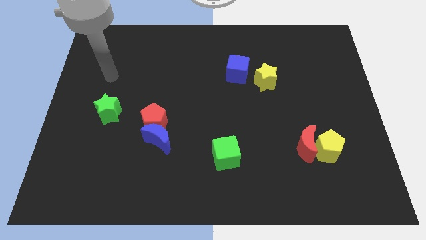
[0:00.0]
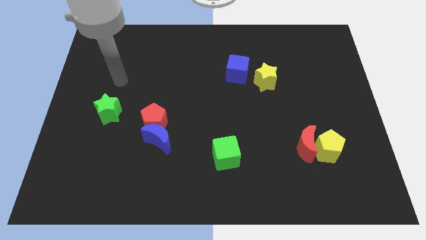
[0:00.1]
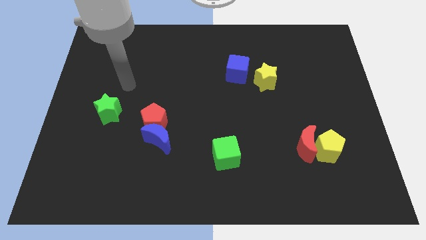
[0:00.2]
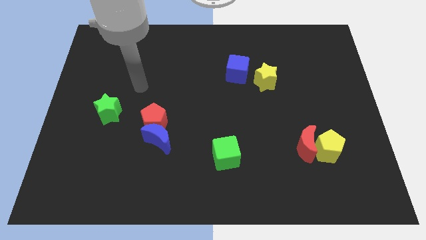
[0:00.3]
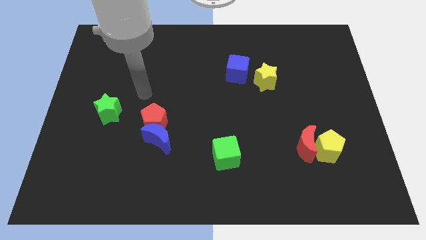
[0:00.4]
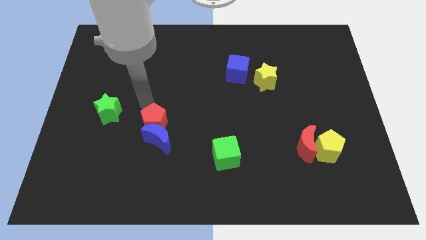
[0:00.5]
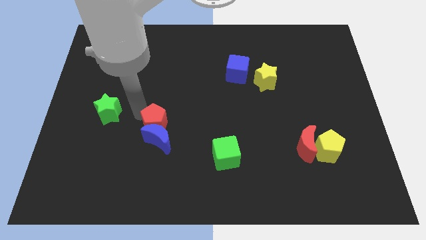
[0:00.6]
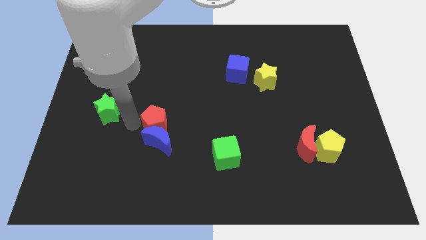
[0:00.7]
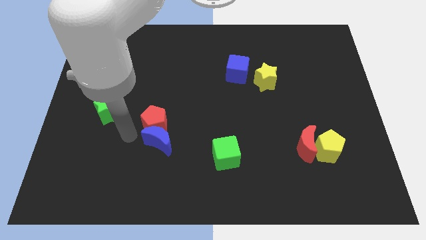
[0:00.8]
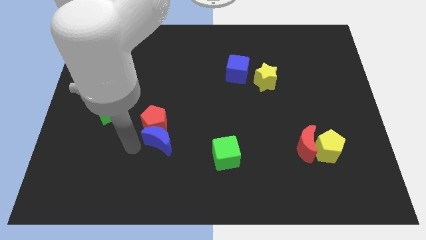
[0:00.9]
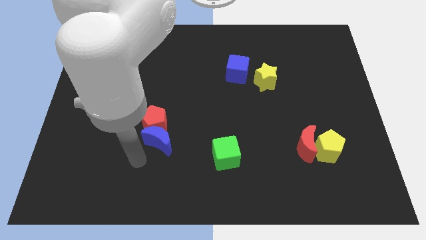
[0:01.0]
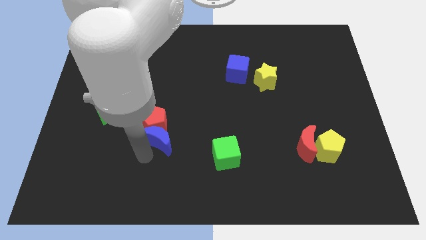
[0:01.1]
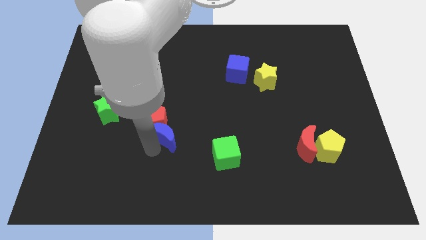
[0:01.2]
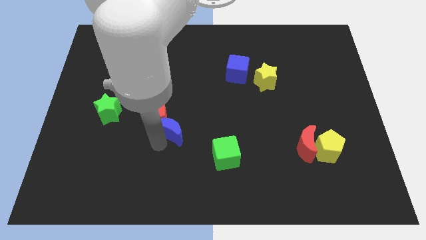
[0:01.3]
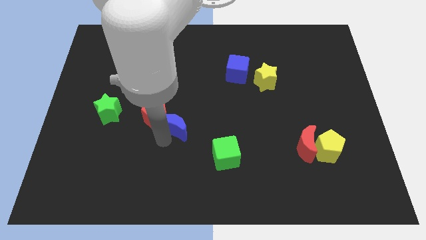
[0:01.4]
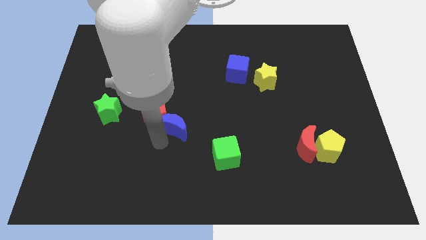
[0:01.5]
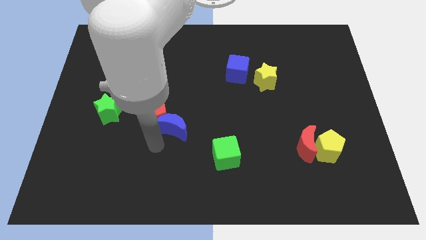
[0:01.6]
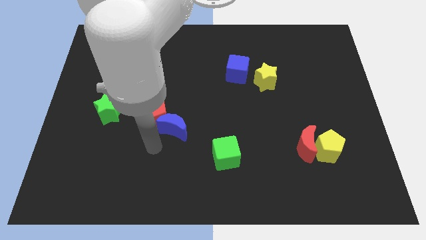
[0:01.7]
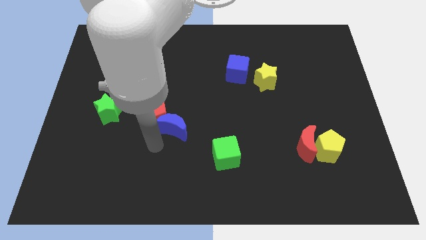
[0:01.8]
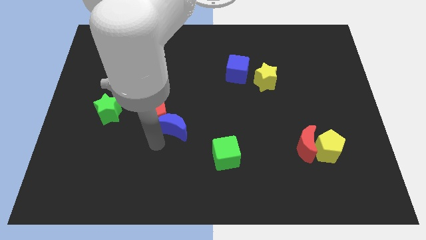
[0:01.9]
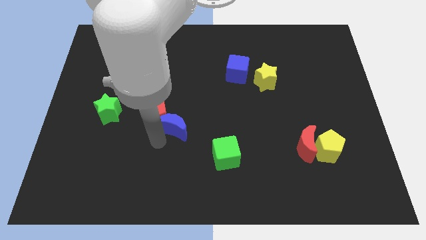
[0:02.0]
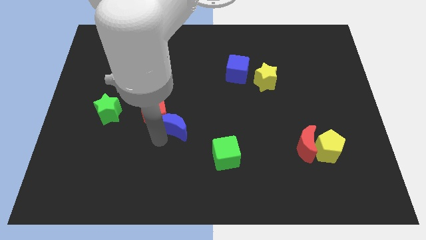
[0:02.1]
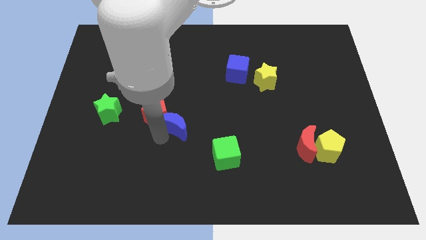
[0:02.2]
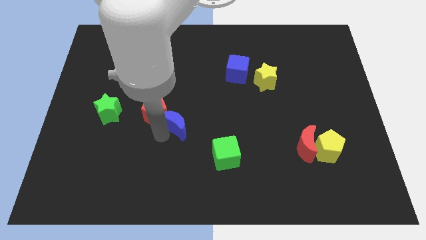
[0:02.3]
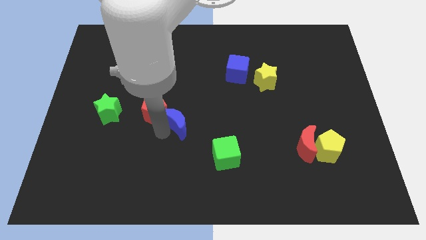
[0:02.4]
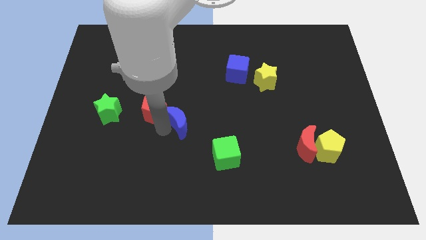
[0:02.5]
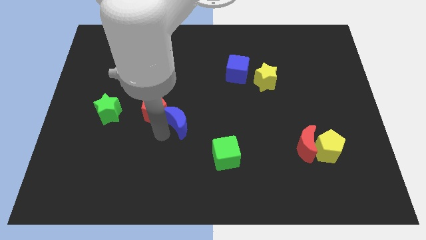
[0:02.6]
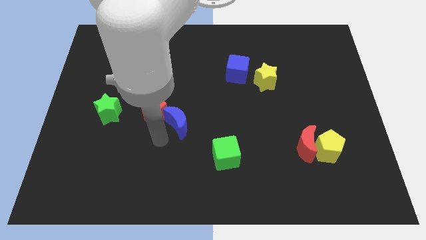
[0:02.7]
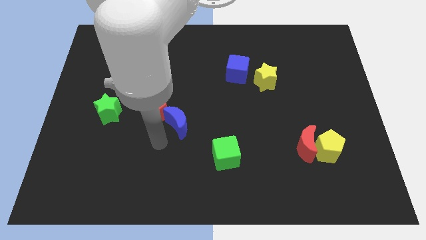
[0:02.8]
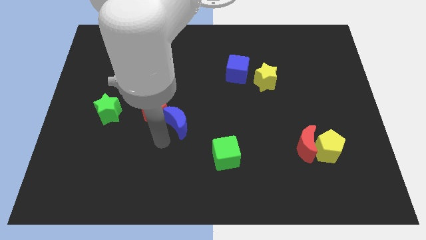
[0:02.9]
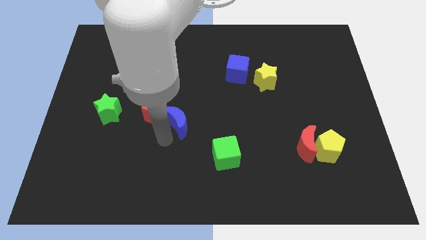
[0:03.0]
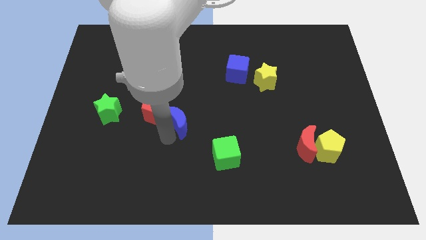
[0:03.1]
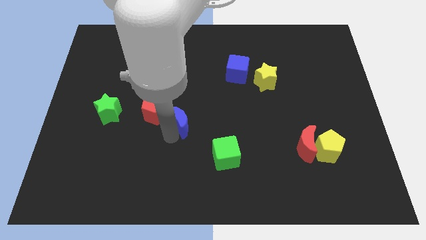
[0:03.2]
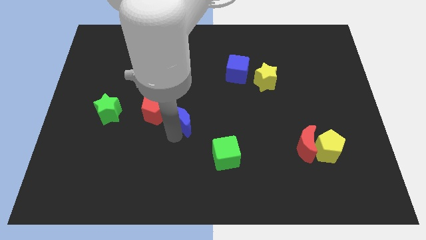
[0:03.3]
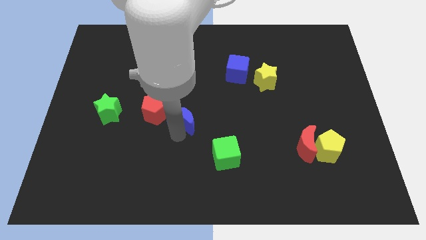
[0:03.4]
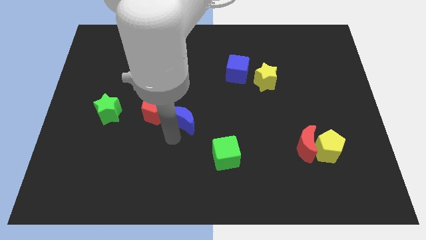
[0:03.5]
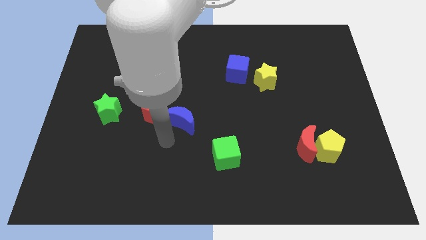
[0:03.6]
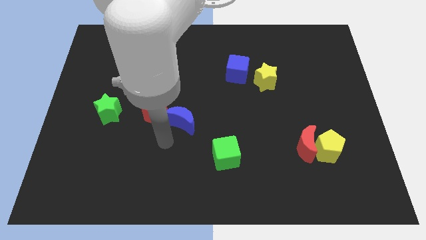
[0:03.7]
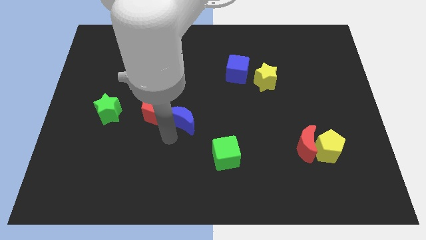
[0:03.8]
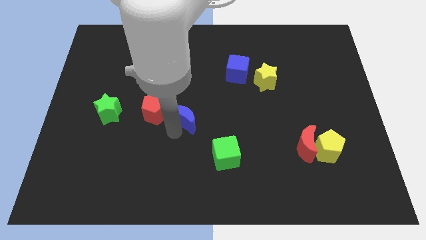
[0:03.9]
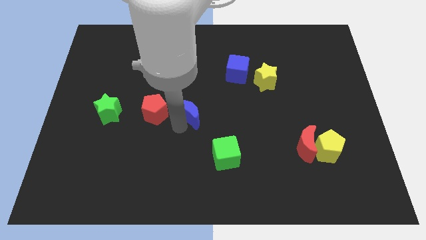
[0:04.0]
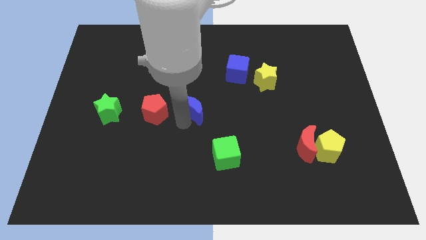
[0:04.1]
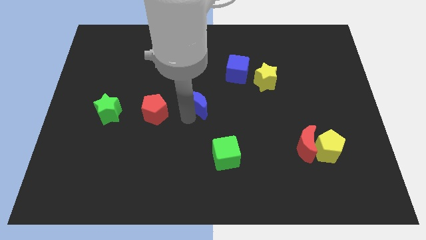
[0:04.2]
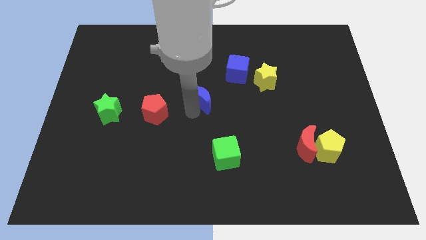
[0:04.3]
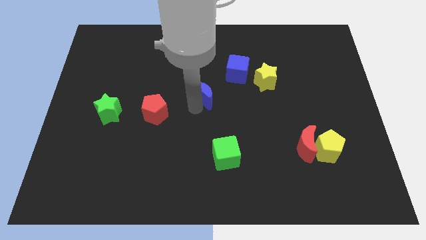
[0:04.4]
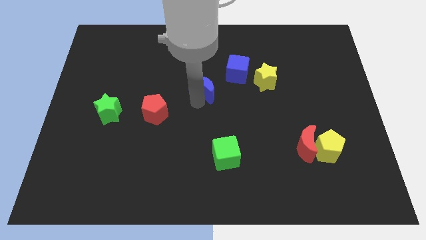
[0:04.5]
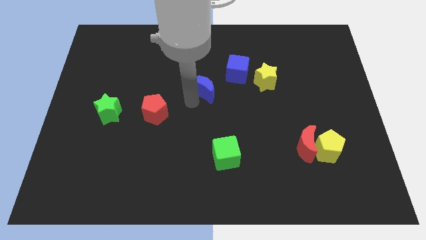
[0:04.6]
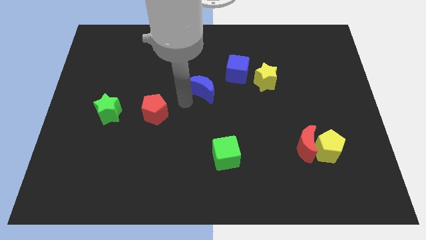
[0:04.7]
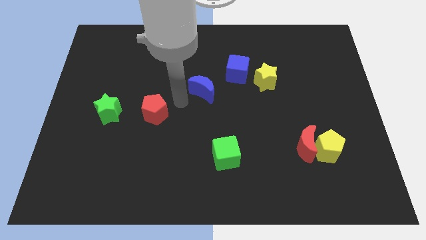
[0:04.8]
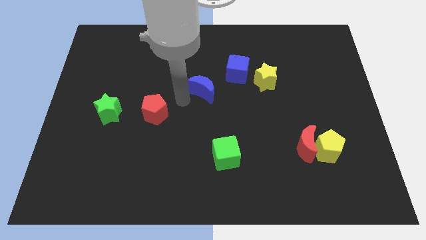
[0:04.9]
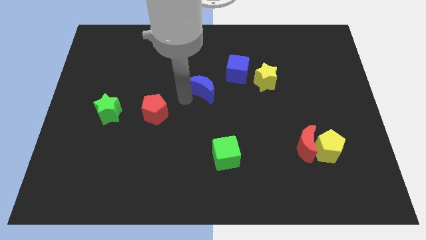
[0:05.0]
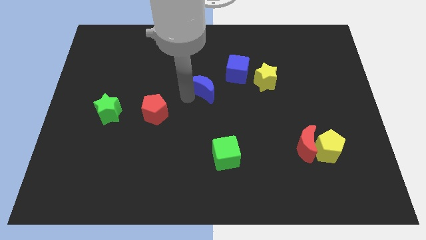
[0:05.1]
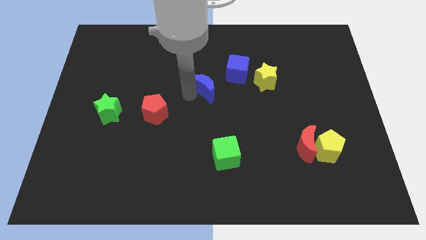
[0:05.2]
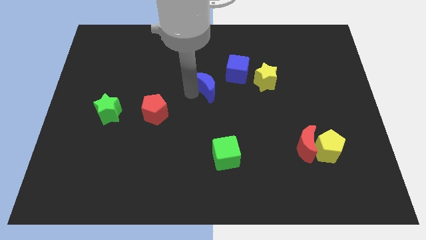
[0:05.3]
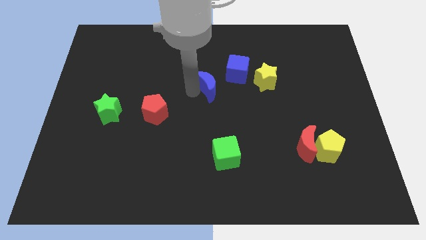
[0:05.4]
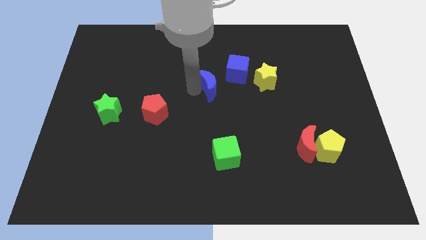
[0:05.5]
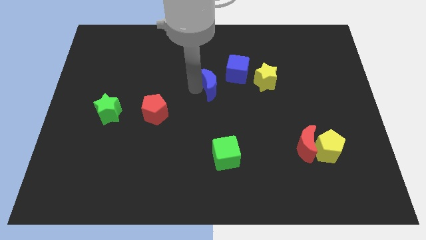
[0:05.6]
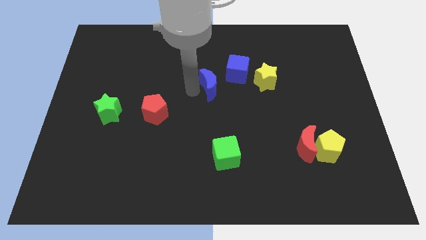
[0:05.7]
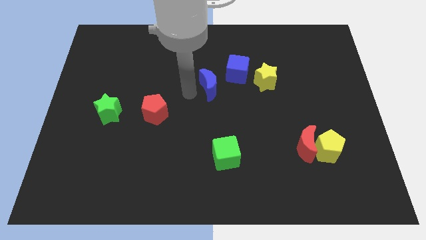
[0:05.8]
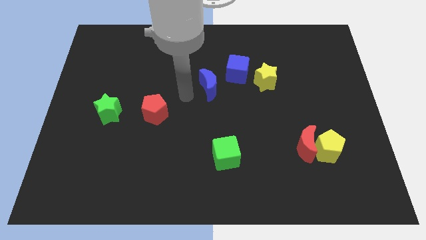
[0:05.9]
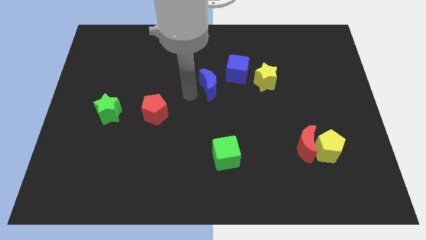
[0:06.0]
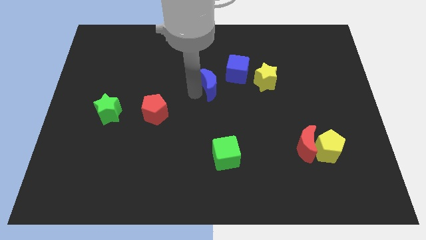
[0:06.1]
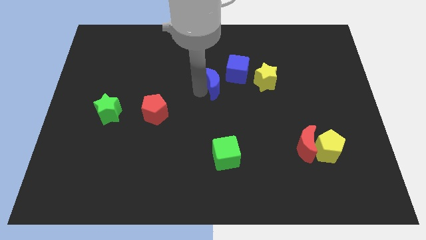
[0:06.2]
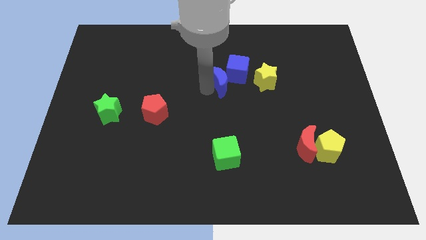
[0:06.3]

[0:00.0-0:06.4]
push the blue moon to the blue cube

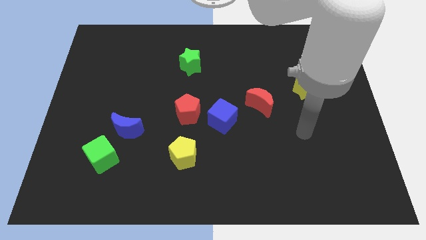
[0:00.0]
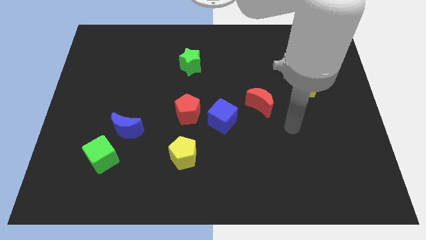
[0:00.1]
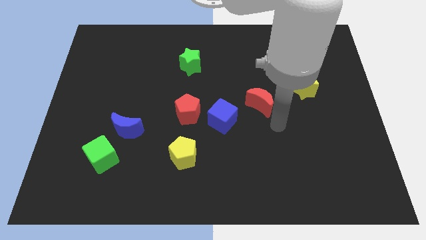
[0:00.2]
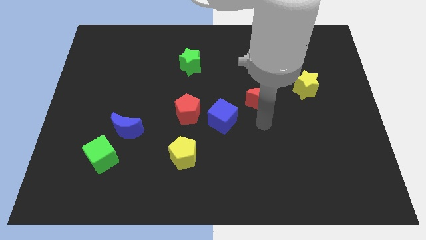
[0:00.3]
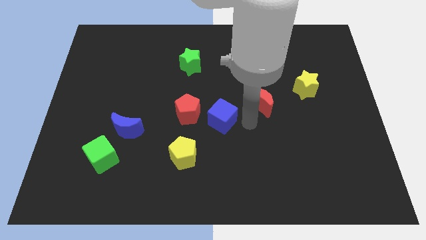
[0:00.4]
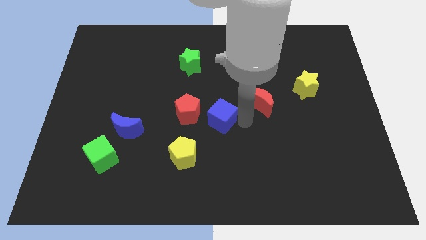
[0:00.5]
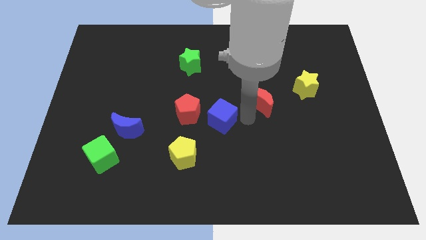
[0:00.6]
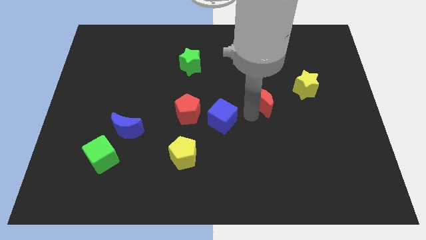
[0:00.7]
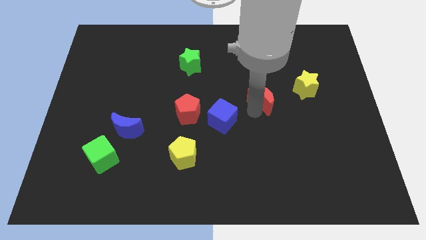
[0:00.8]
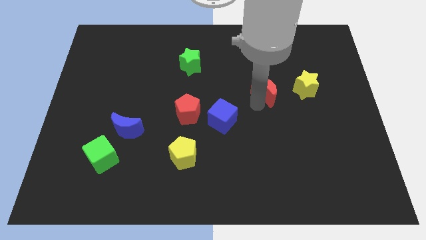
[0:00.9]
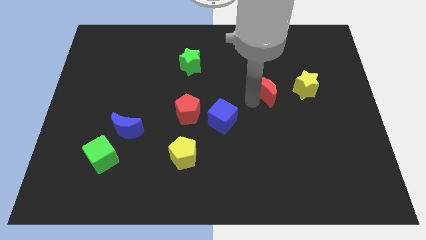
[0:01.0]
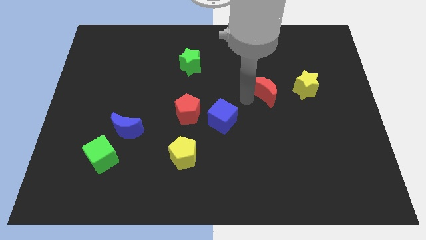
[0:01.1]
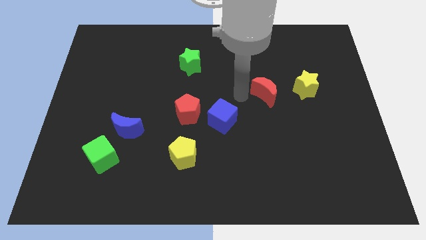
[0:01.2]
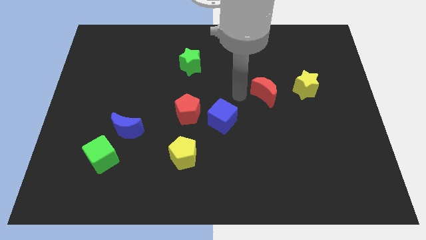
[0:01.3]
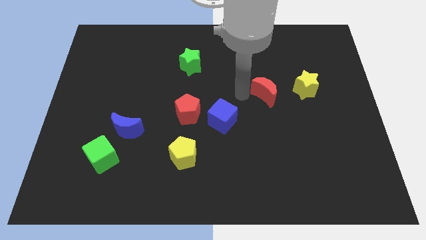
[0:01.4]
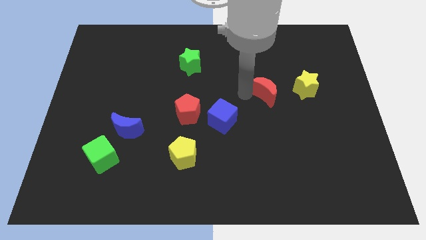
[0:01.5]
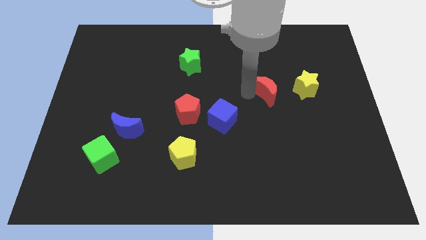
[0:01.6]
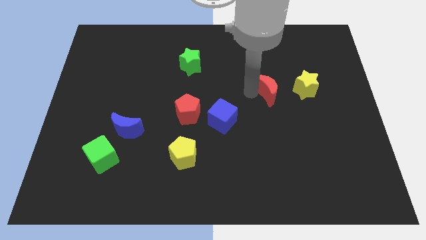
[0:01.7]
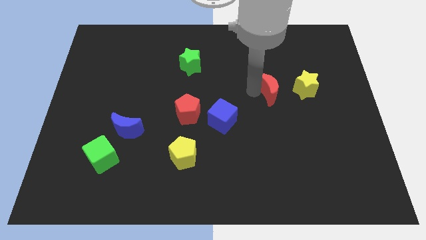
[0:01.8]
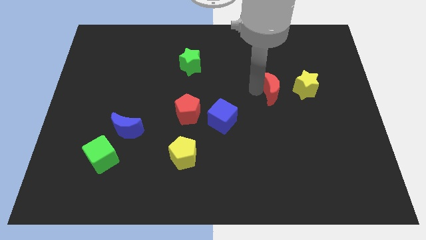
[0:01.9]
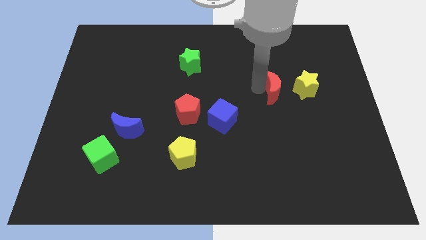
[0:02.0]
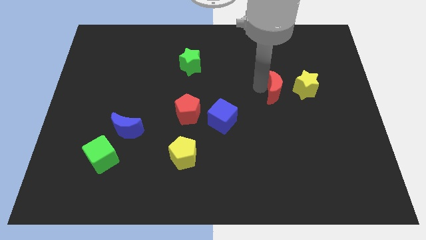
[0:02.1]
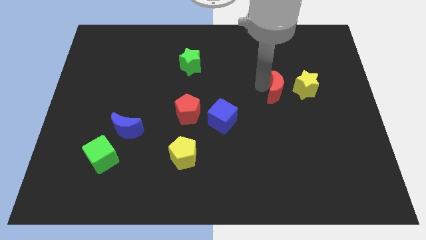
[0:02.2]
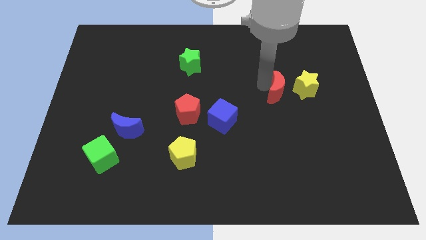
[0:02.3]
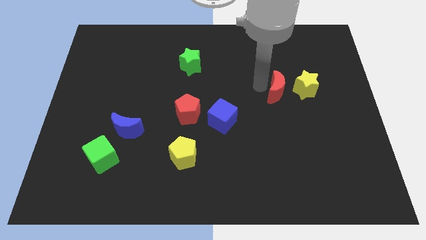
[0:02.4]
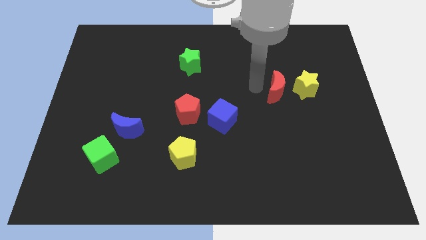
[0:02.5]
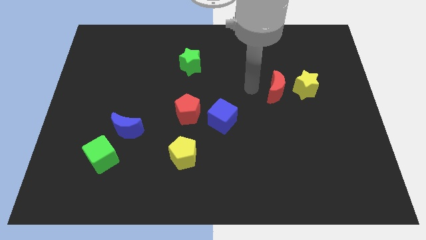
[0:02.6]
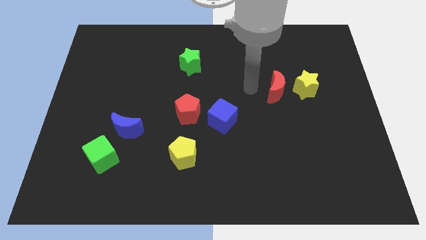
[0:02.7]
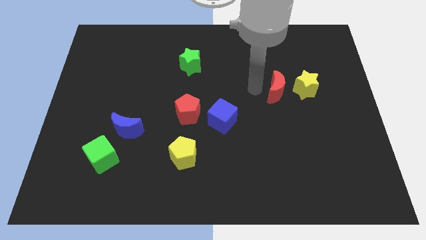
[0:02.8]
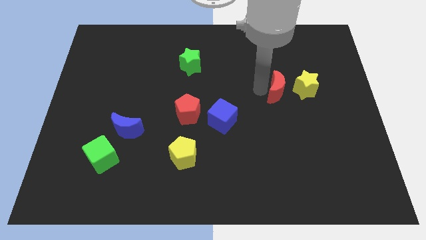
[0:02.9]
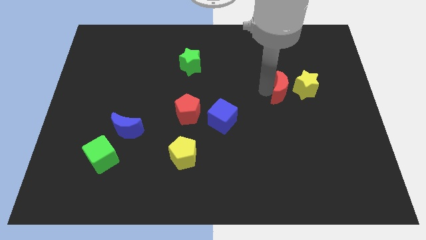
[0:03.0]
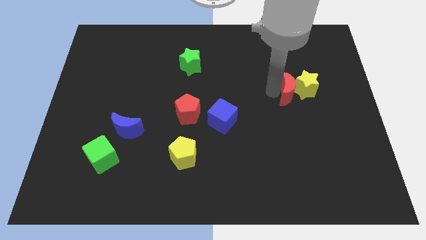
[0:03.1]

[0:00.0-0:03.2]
push the red moon to the yellow star
